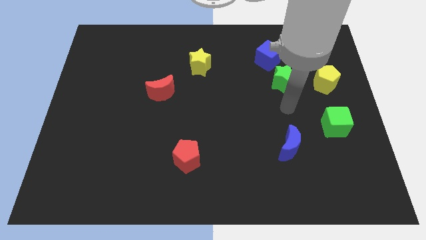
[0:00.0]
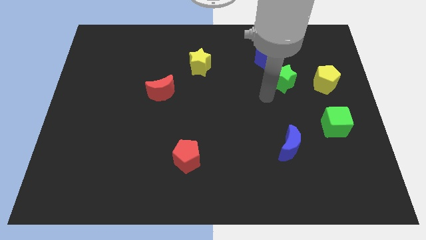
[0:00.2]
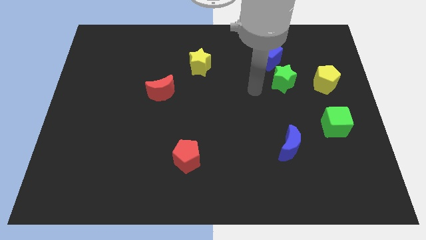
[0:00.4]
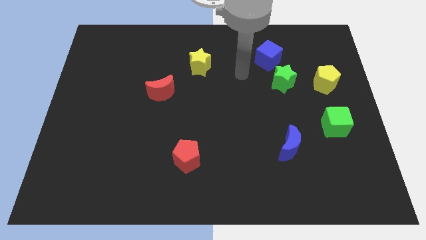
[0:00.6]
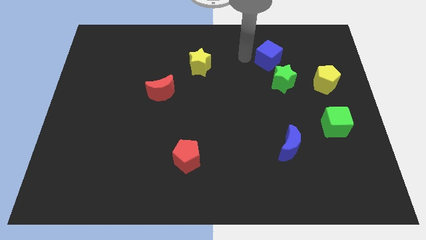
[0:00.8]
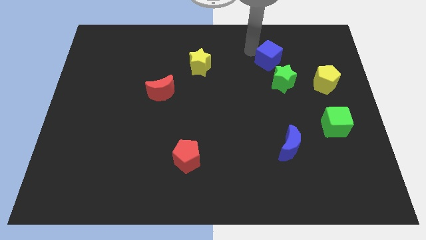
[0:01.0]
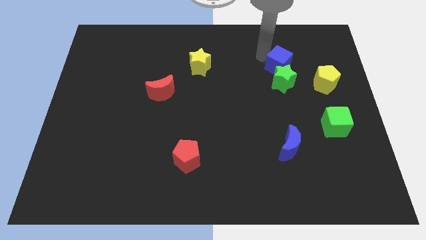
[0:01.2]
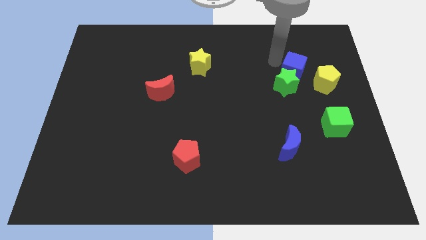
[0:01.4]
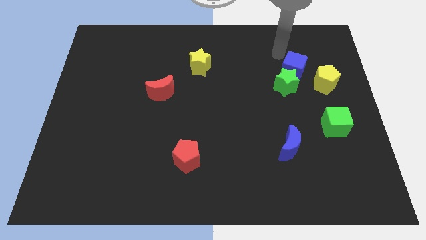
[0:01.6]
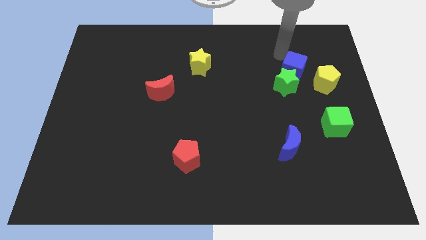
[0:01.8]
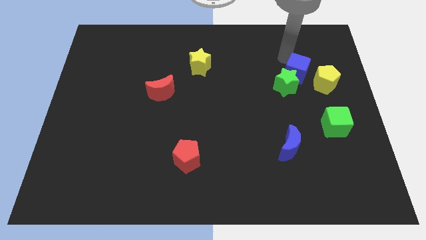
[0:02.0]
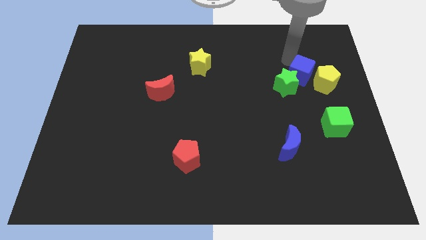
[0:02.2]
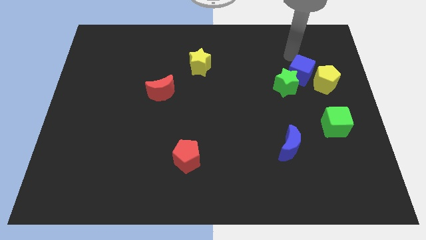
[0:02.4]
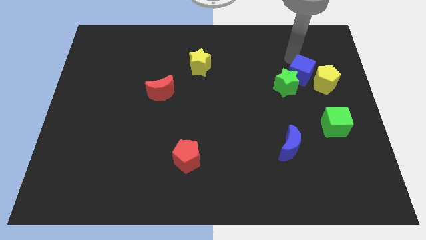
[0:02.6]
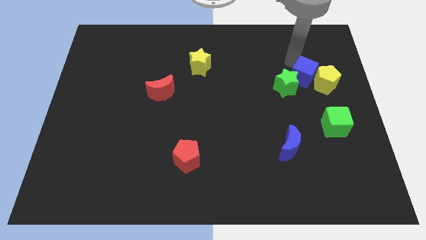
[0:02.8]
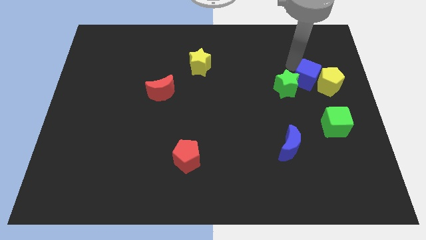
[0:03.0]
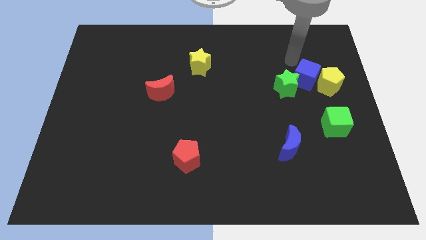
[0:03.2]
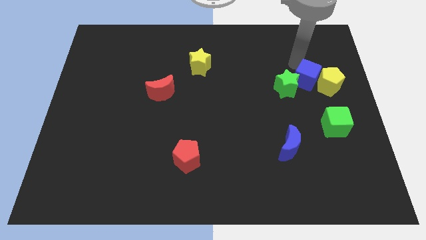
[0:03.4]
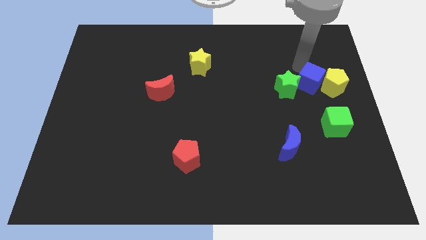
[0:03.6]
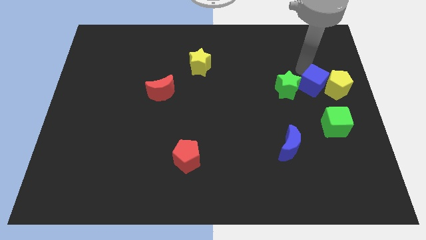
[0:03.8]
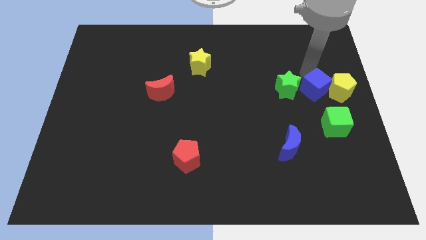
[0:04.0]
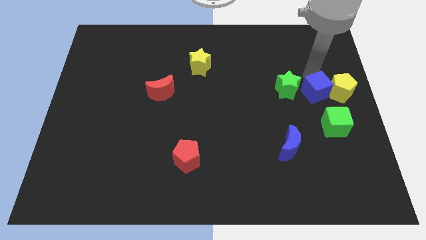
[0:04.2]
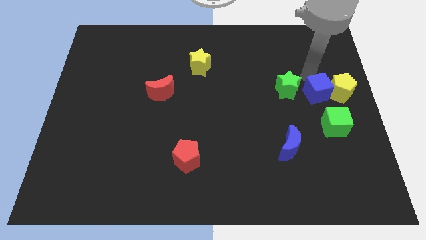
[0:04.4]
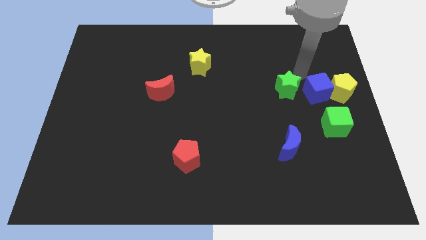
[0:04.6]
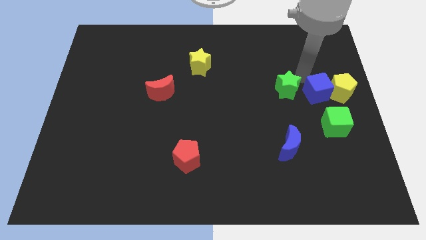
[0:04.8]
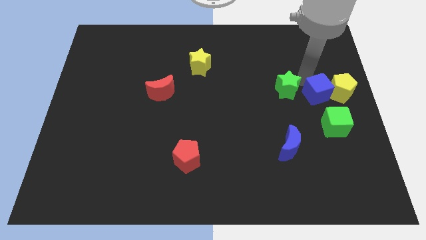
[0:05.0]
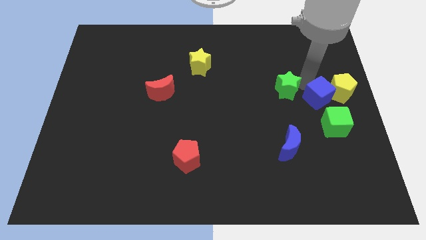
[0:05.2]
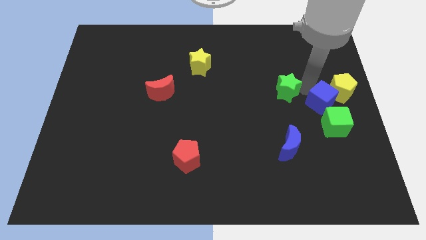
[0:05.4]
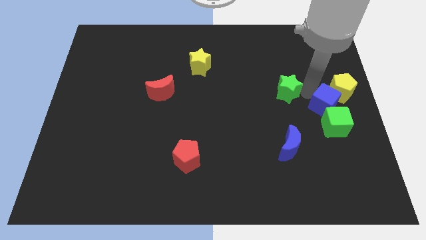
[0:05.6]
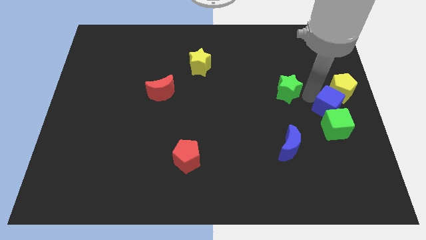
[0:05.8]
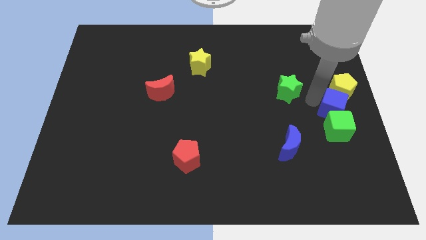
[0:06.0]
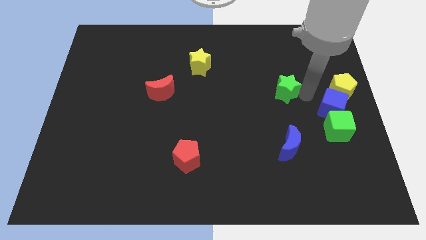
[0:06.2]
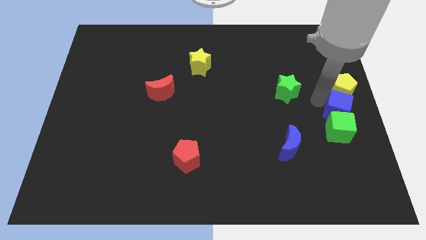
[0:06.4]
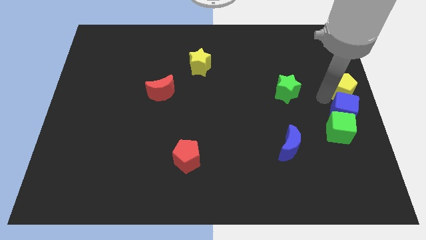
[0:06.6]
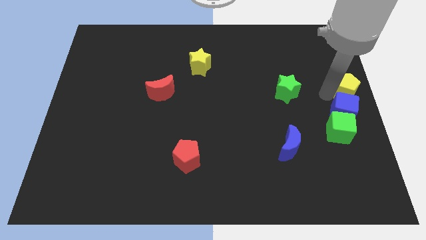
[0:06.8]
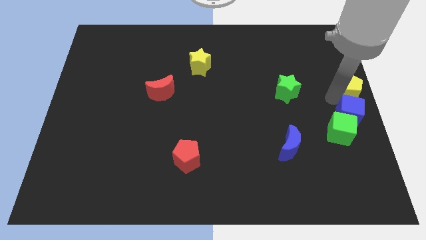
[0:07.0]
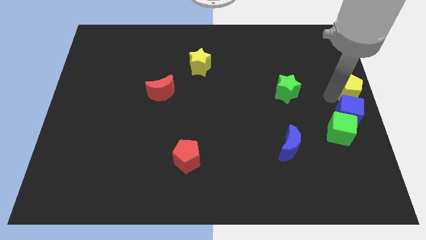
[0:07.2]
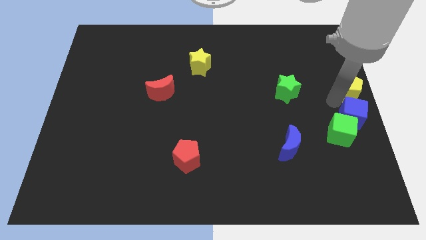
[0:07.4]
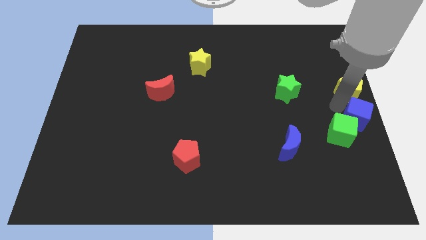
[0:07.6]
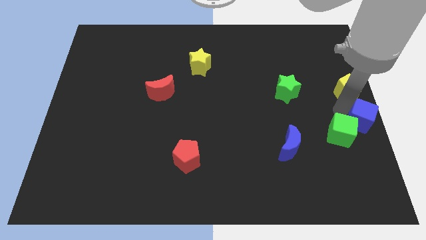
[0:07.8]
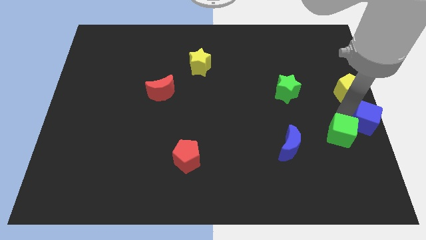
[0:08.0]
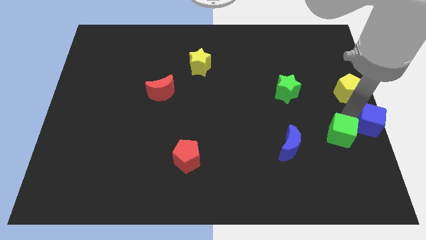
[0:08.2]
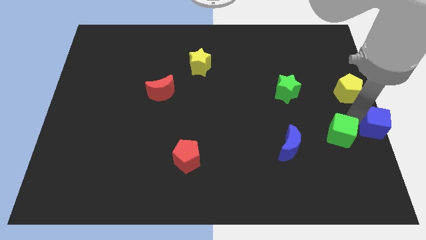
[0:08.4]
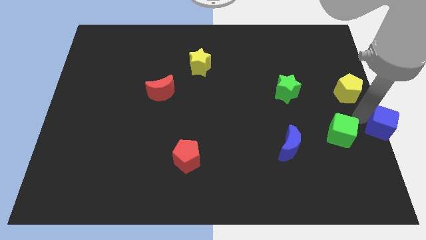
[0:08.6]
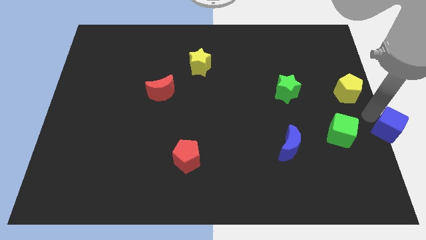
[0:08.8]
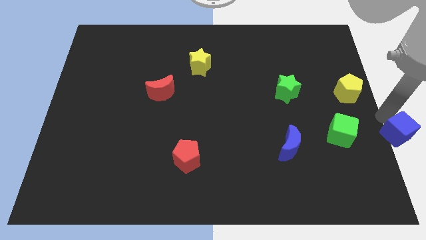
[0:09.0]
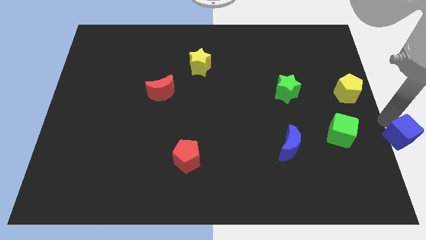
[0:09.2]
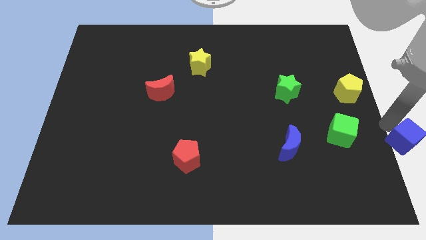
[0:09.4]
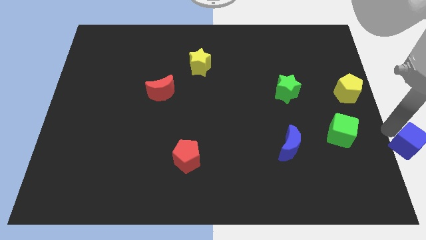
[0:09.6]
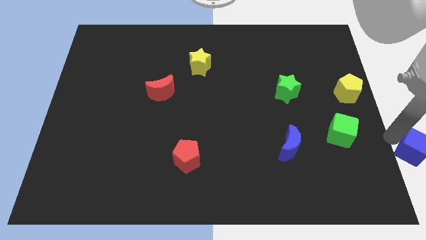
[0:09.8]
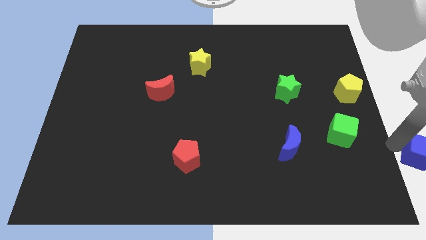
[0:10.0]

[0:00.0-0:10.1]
push the blue cube to the lower right corner
